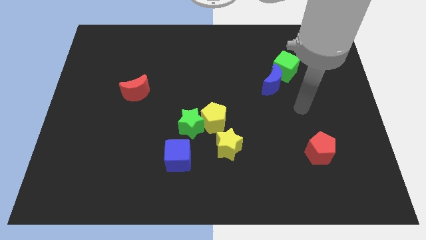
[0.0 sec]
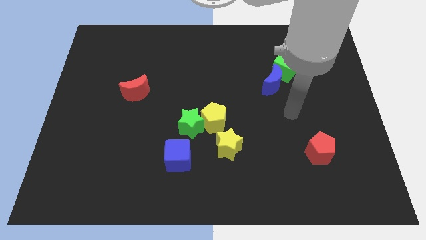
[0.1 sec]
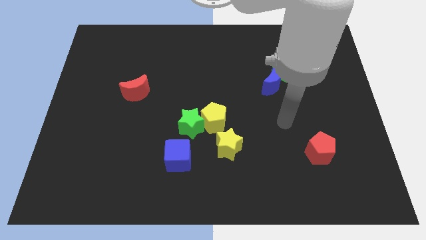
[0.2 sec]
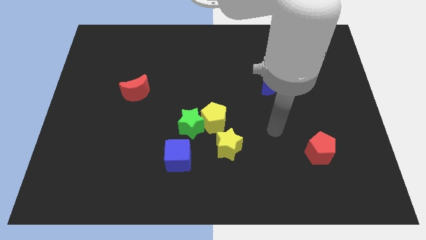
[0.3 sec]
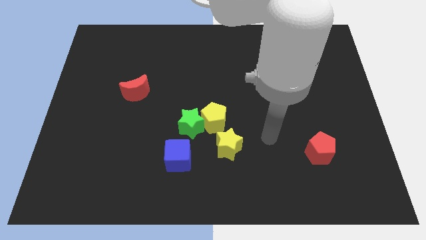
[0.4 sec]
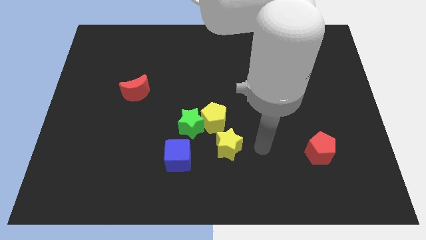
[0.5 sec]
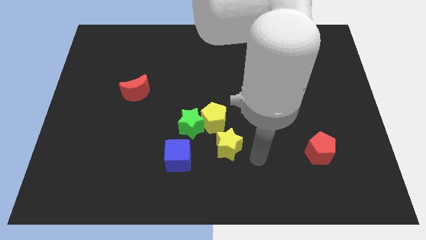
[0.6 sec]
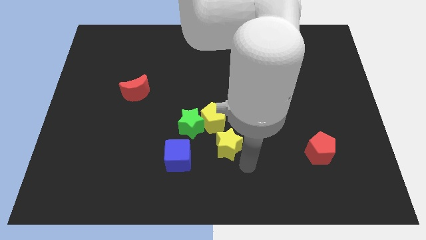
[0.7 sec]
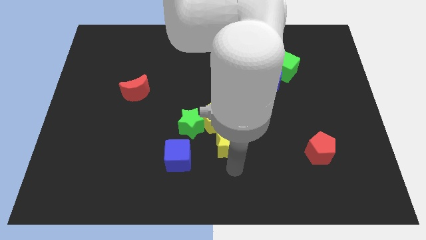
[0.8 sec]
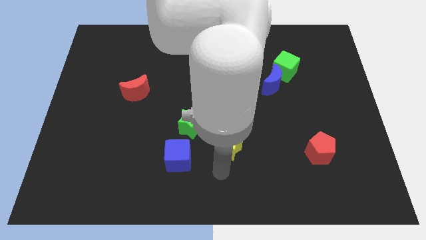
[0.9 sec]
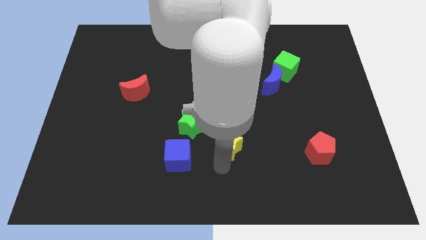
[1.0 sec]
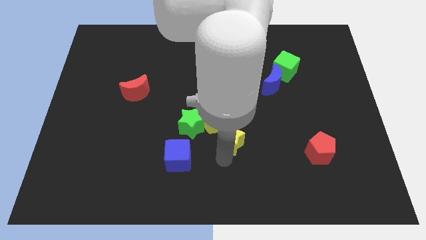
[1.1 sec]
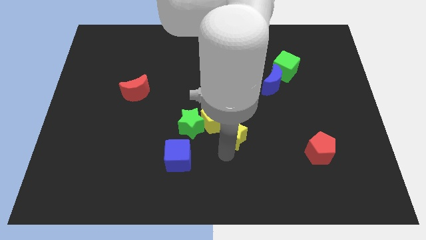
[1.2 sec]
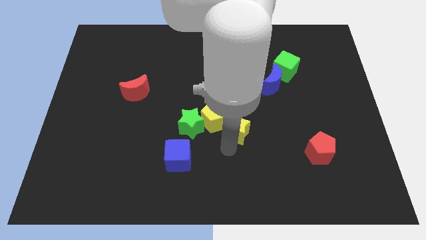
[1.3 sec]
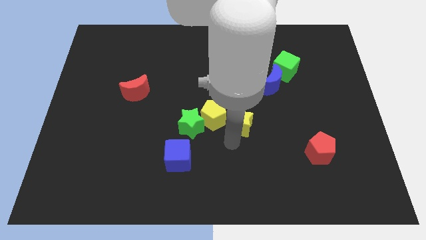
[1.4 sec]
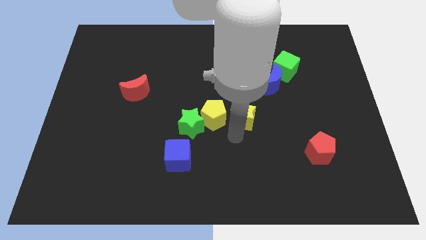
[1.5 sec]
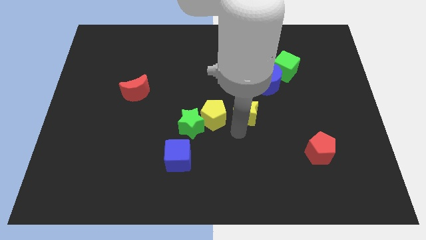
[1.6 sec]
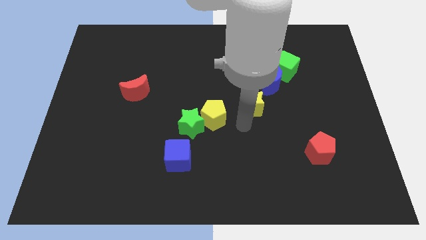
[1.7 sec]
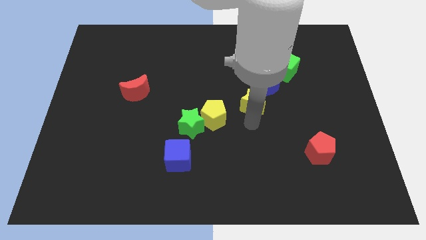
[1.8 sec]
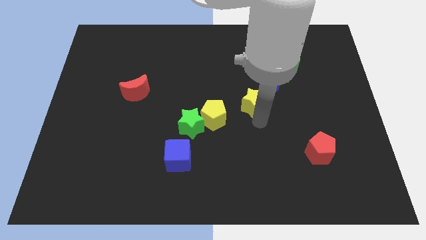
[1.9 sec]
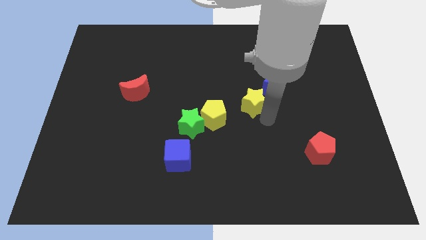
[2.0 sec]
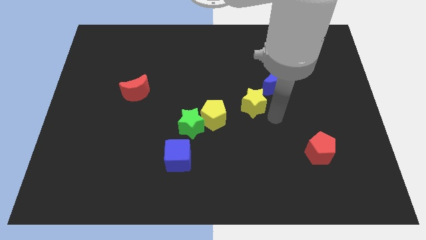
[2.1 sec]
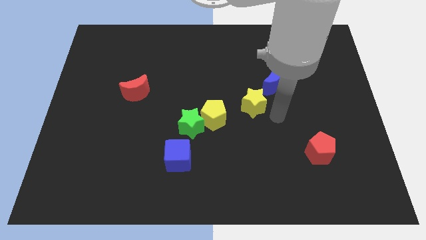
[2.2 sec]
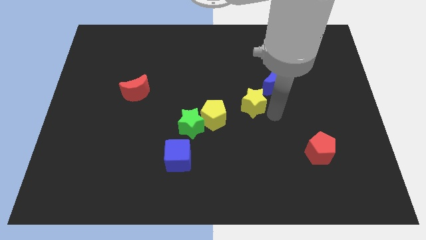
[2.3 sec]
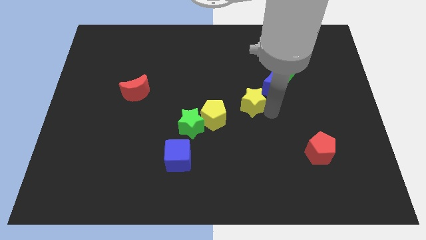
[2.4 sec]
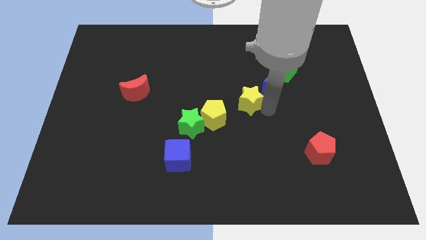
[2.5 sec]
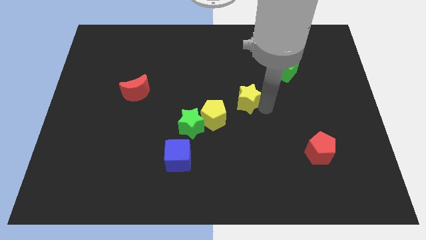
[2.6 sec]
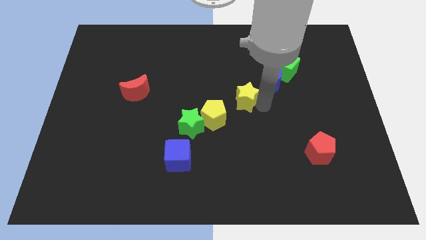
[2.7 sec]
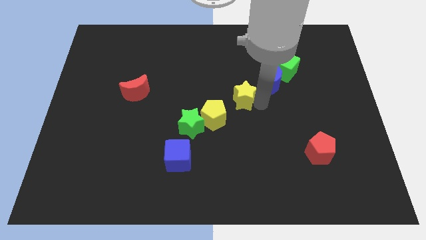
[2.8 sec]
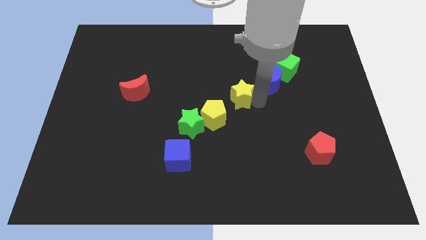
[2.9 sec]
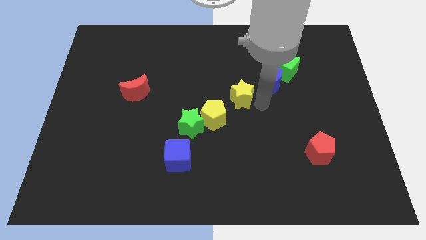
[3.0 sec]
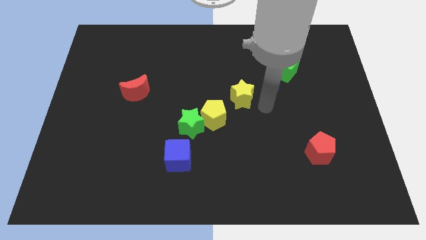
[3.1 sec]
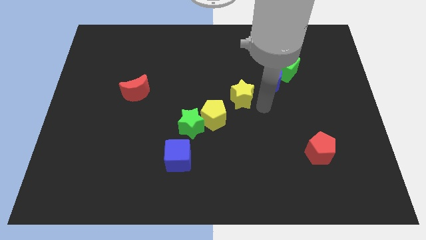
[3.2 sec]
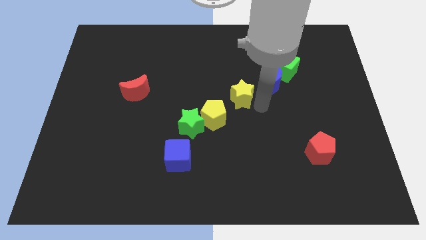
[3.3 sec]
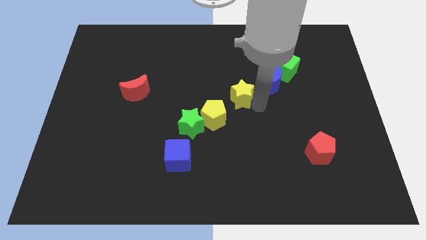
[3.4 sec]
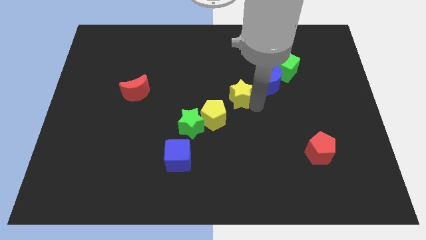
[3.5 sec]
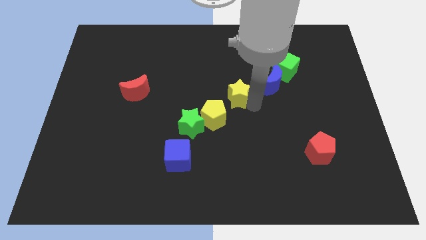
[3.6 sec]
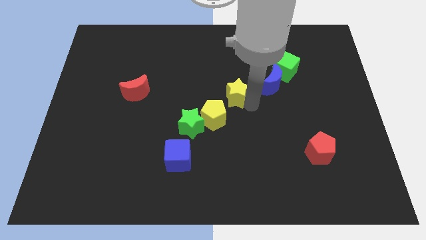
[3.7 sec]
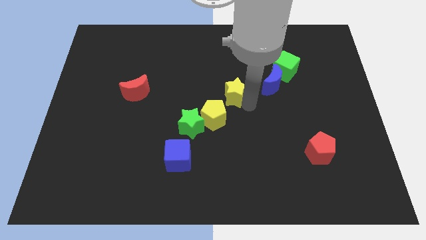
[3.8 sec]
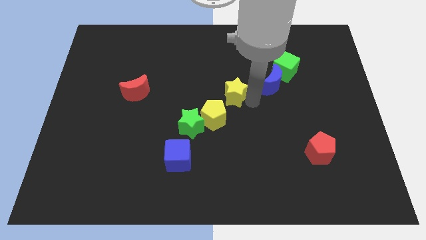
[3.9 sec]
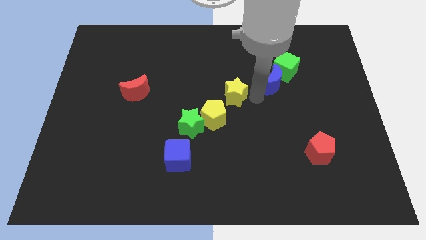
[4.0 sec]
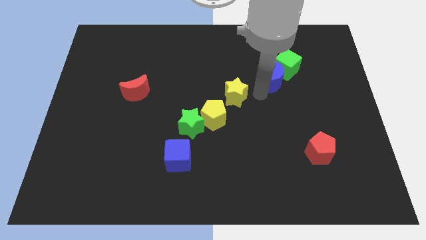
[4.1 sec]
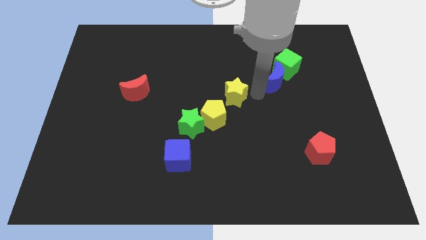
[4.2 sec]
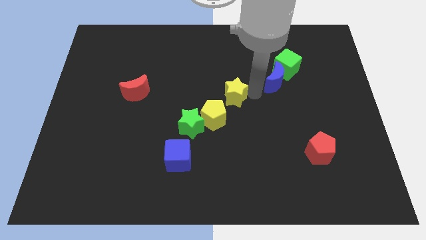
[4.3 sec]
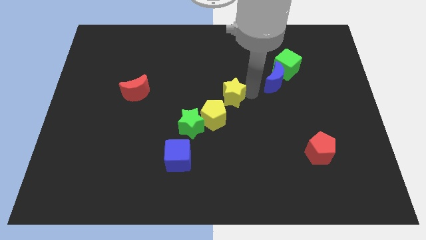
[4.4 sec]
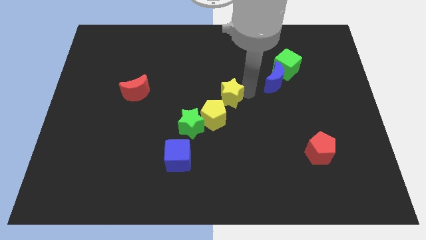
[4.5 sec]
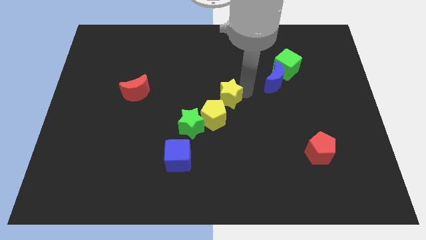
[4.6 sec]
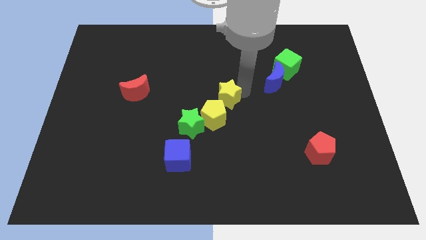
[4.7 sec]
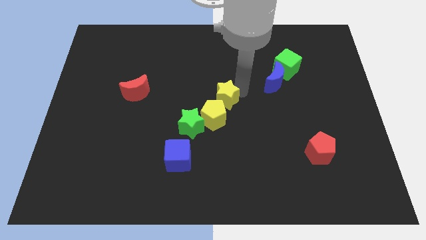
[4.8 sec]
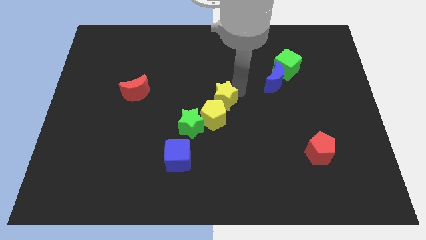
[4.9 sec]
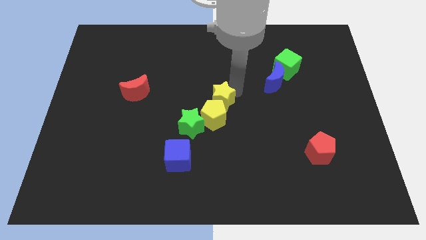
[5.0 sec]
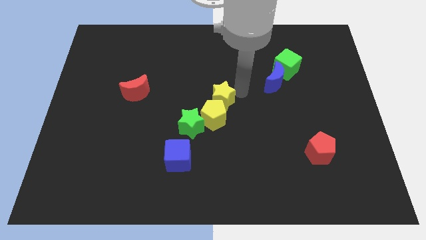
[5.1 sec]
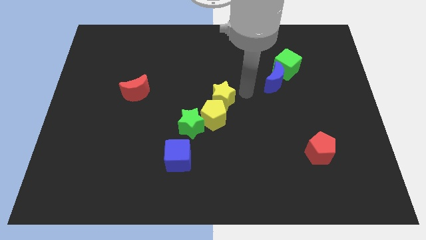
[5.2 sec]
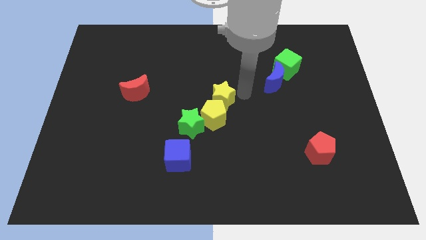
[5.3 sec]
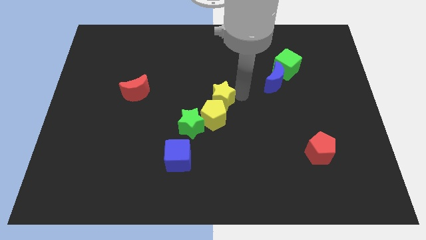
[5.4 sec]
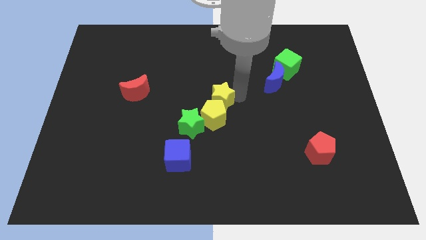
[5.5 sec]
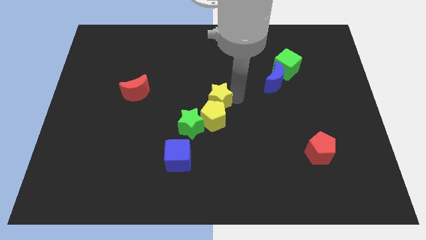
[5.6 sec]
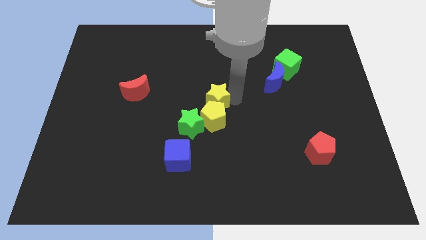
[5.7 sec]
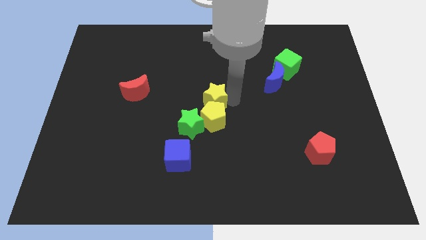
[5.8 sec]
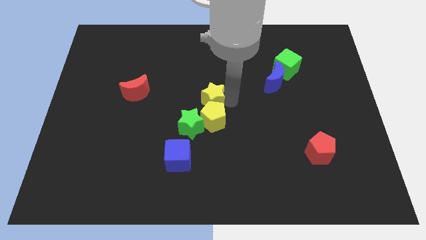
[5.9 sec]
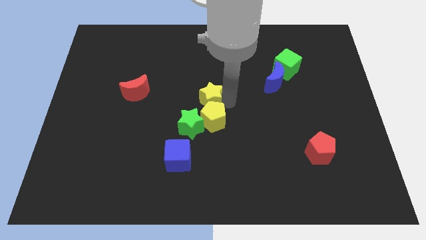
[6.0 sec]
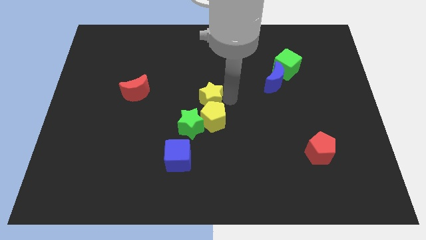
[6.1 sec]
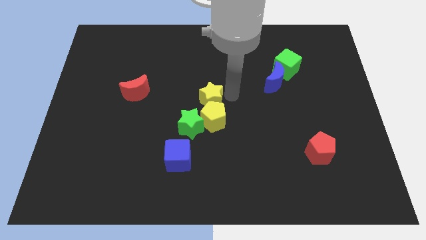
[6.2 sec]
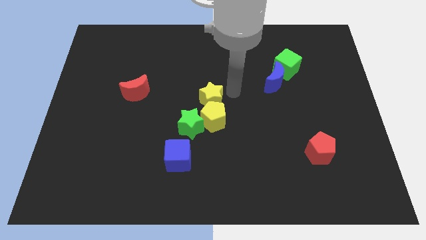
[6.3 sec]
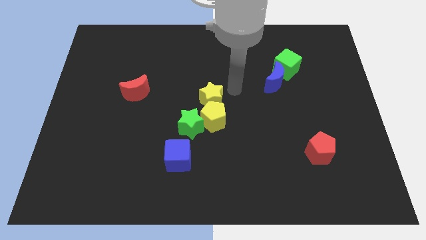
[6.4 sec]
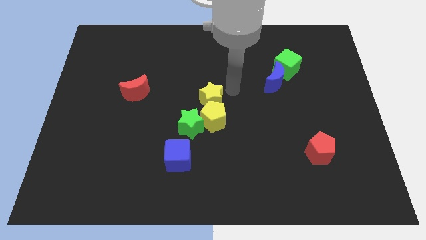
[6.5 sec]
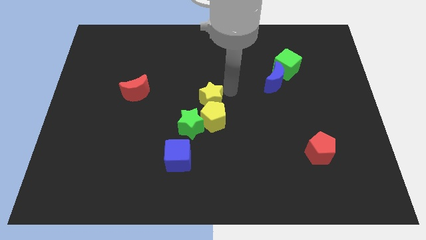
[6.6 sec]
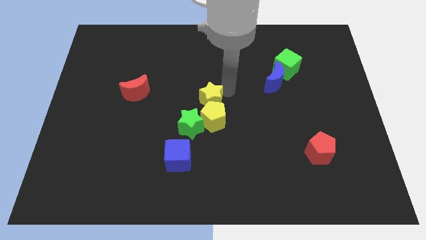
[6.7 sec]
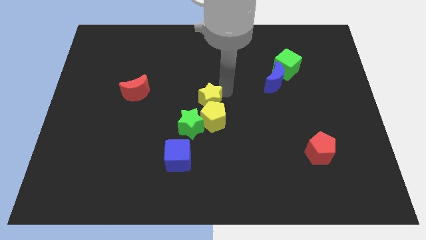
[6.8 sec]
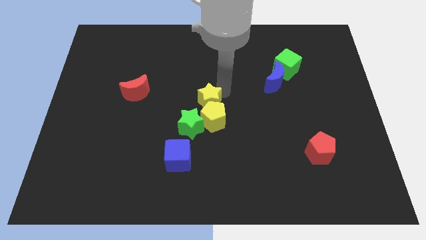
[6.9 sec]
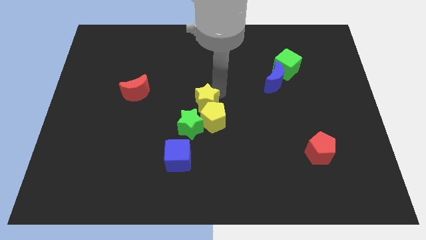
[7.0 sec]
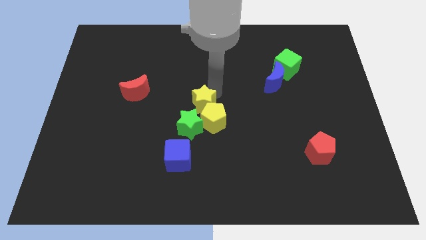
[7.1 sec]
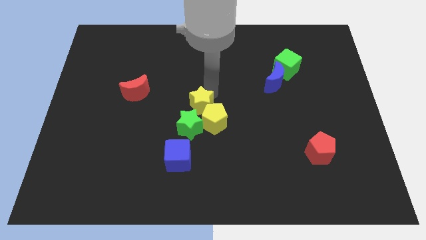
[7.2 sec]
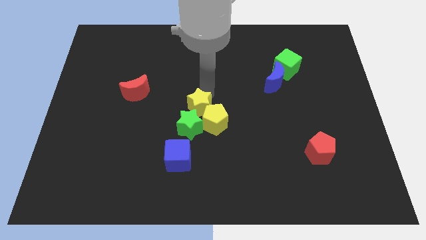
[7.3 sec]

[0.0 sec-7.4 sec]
push the yellow star just left of the yellow pentagon
